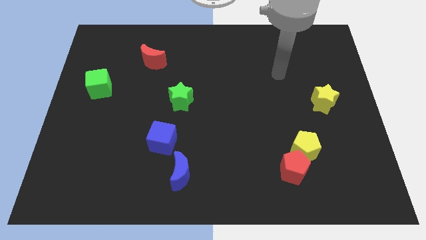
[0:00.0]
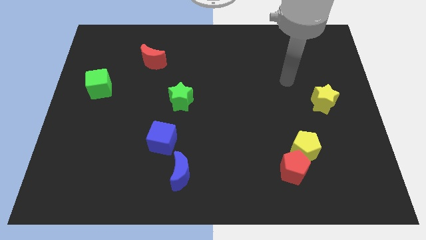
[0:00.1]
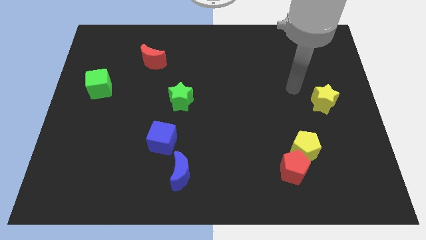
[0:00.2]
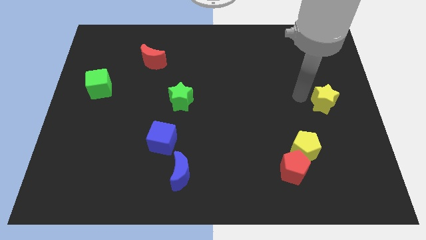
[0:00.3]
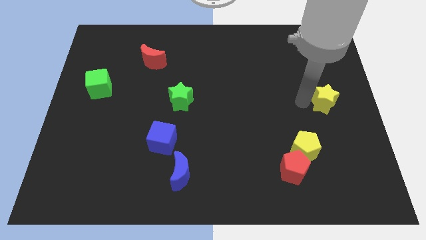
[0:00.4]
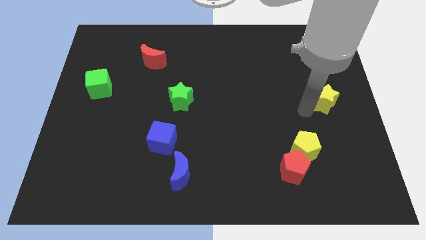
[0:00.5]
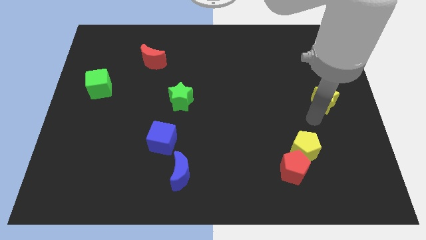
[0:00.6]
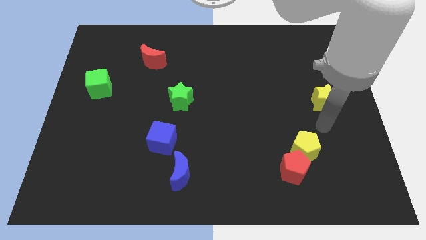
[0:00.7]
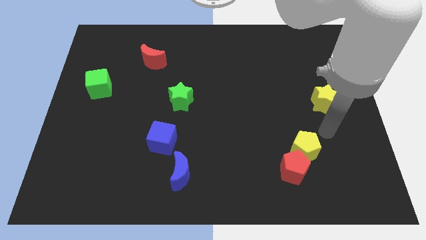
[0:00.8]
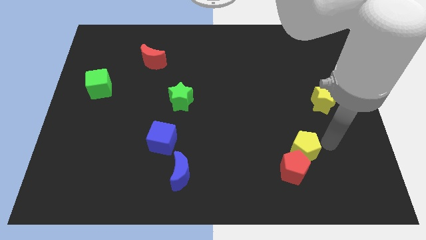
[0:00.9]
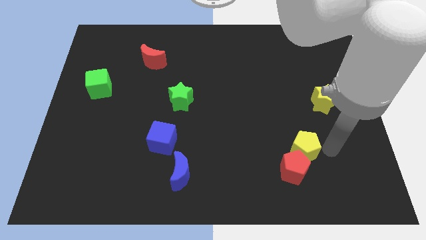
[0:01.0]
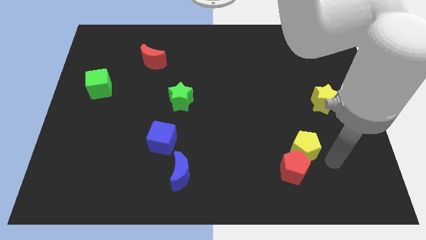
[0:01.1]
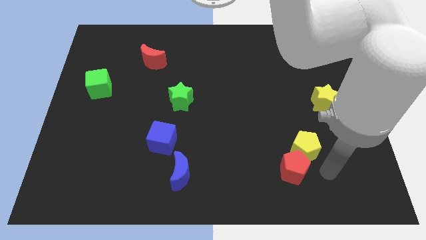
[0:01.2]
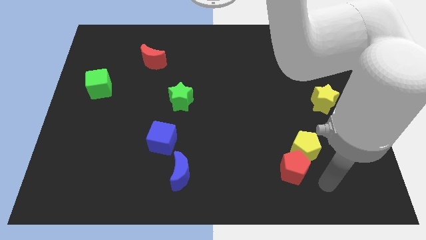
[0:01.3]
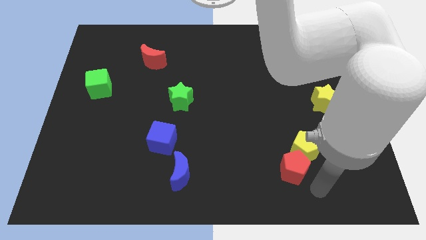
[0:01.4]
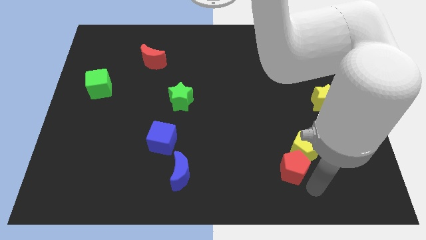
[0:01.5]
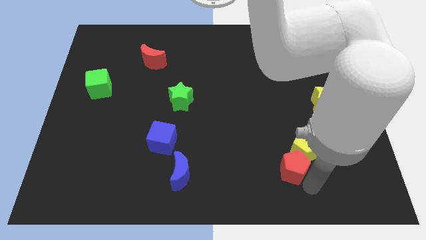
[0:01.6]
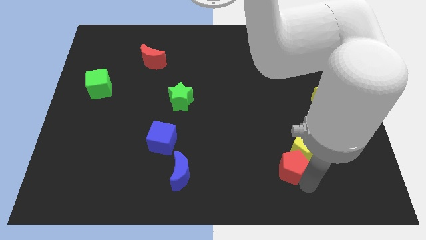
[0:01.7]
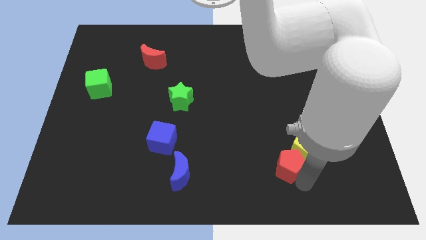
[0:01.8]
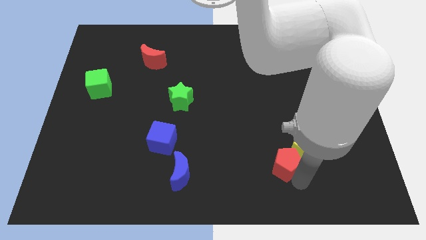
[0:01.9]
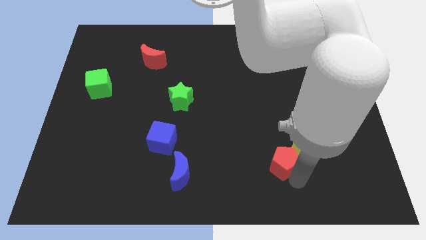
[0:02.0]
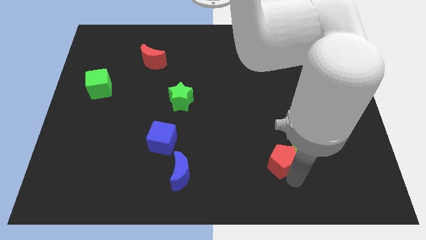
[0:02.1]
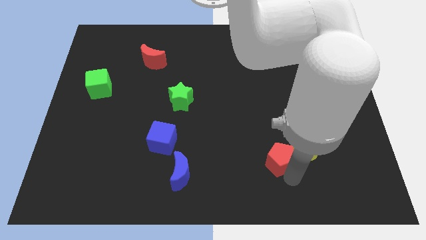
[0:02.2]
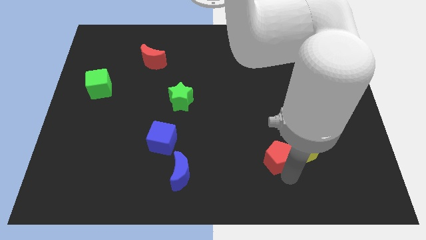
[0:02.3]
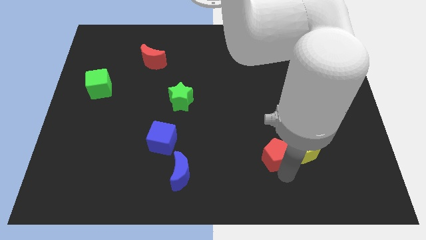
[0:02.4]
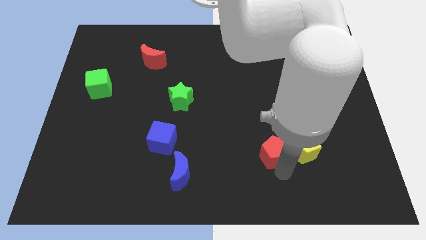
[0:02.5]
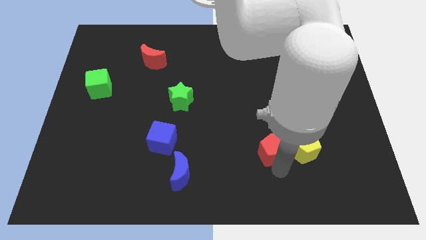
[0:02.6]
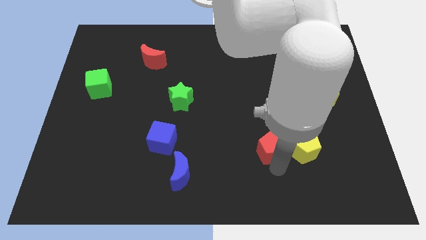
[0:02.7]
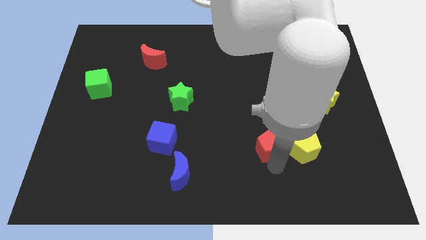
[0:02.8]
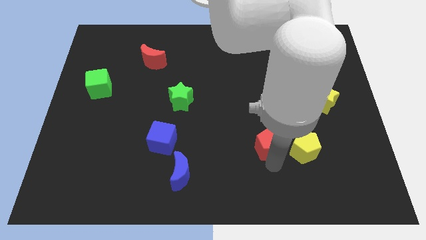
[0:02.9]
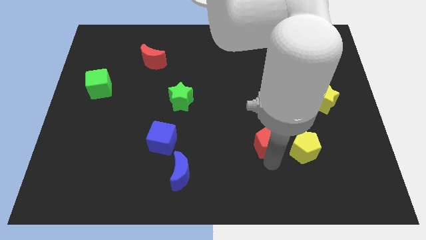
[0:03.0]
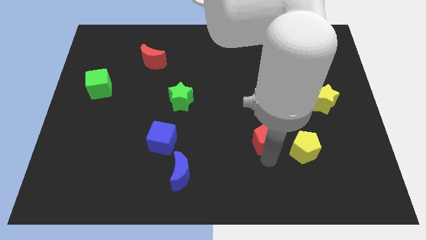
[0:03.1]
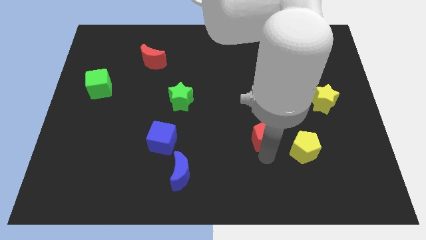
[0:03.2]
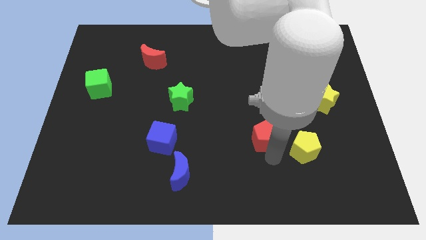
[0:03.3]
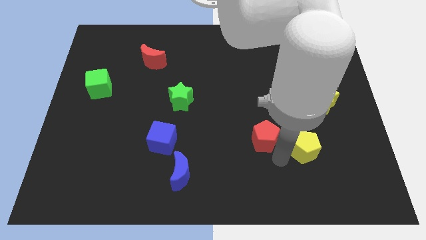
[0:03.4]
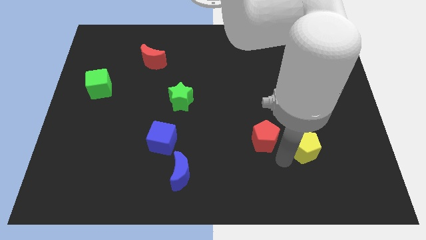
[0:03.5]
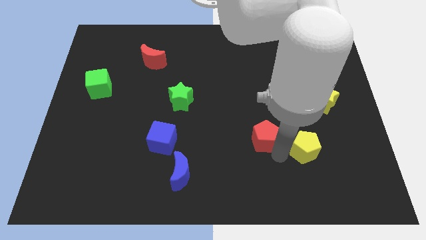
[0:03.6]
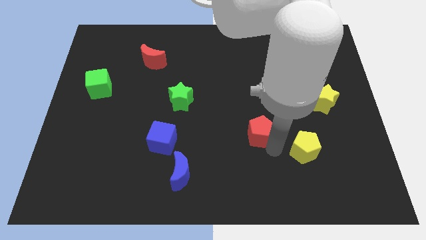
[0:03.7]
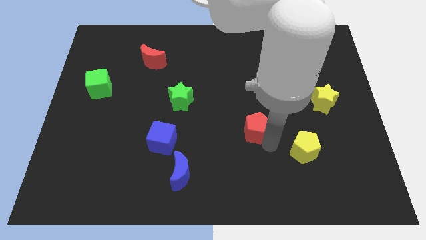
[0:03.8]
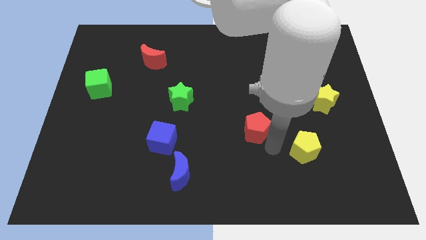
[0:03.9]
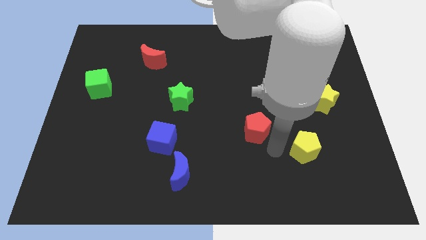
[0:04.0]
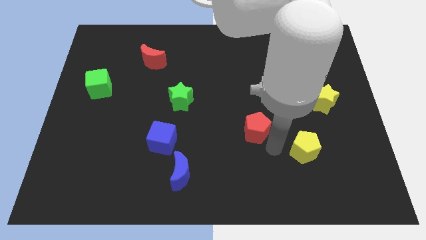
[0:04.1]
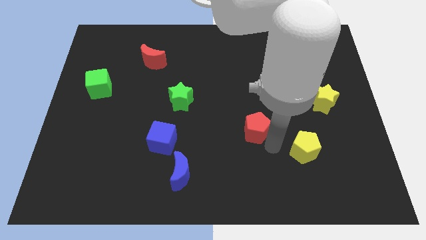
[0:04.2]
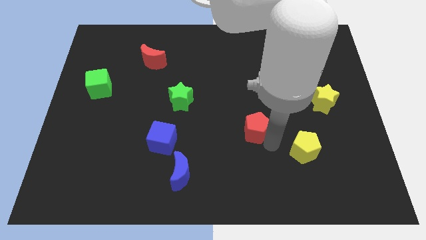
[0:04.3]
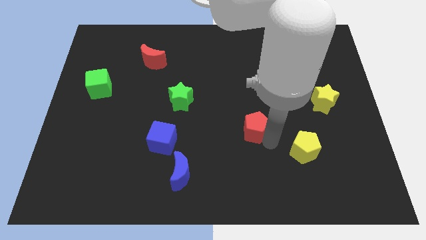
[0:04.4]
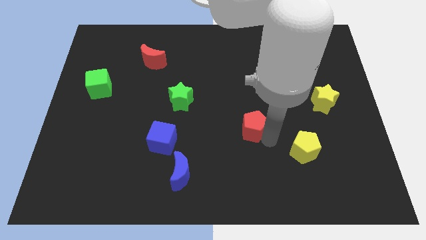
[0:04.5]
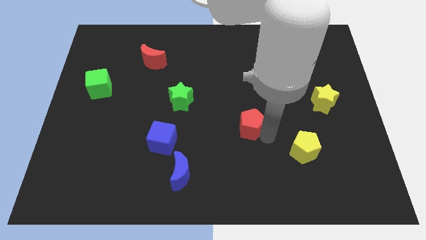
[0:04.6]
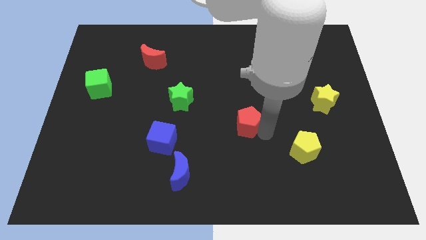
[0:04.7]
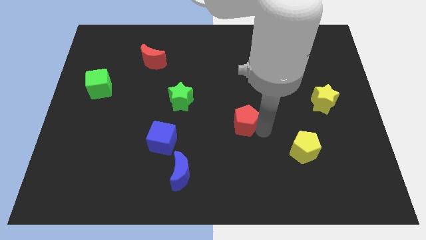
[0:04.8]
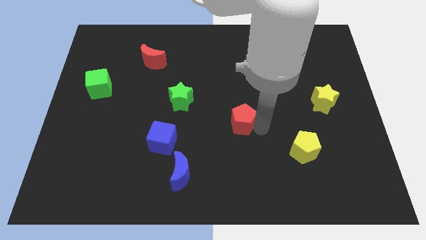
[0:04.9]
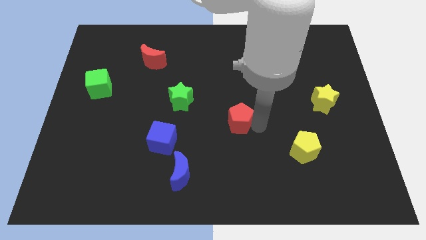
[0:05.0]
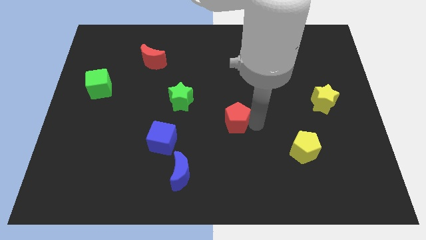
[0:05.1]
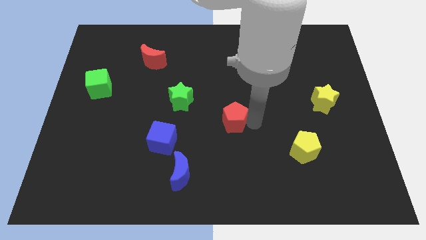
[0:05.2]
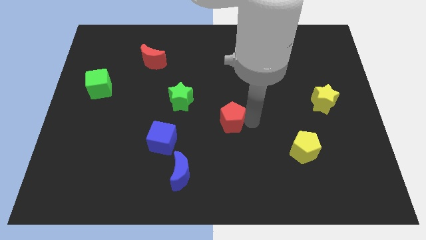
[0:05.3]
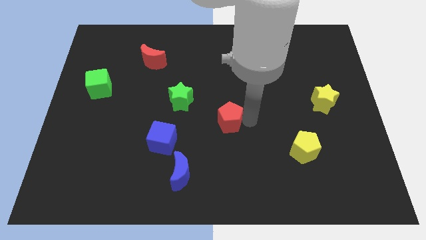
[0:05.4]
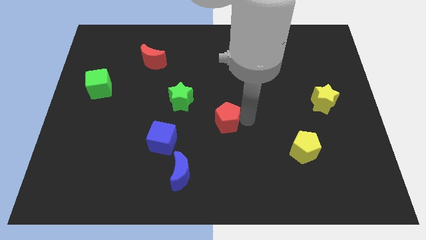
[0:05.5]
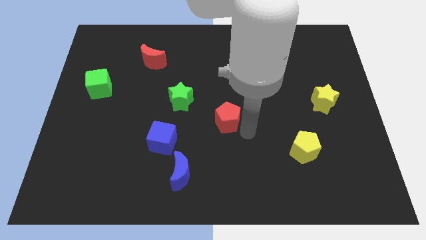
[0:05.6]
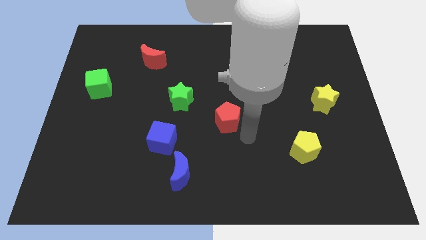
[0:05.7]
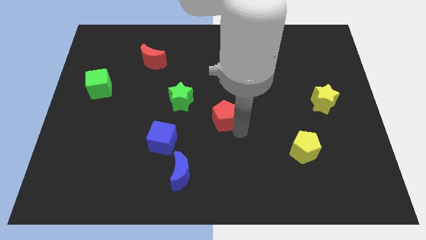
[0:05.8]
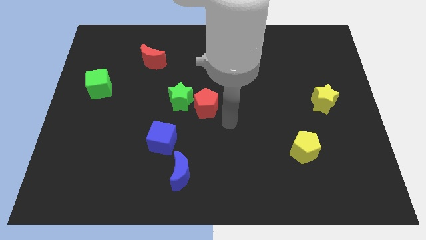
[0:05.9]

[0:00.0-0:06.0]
slide the red pentagon up and left diagonally

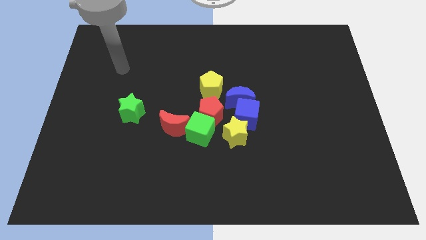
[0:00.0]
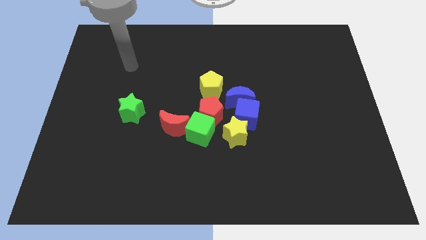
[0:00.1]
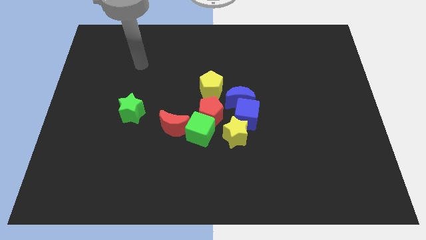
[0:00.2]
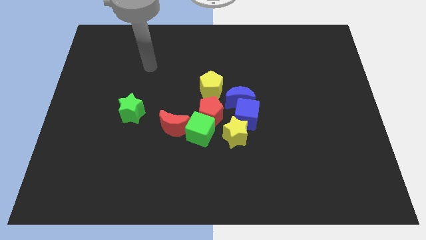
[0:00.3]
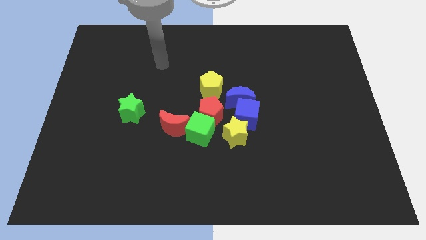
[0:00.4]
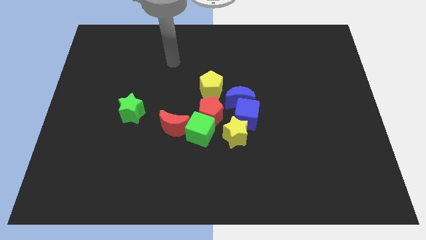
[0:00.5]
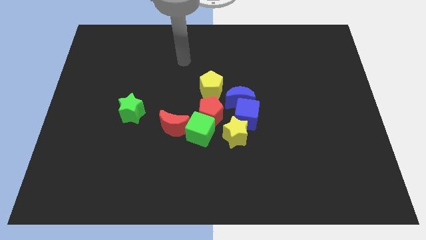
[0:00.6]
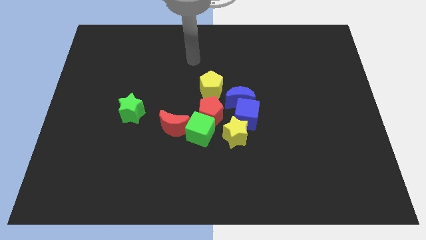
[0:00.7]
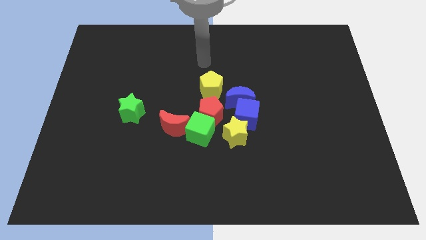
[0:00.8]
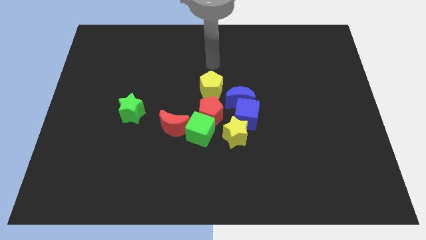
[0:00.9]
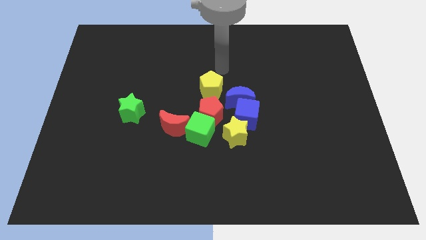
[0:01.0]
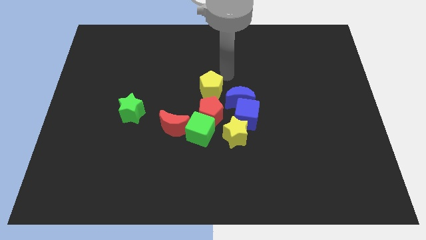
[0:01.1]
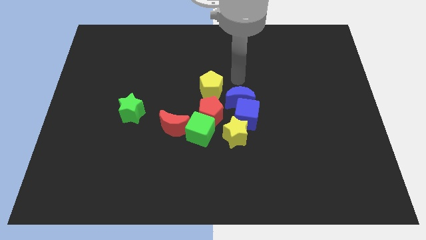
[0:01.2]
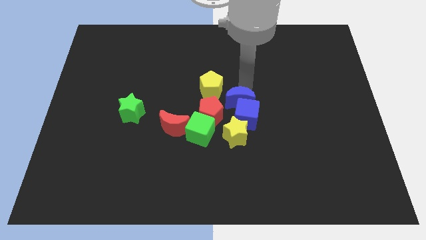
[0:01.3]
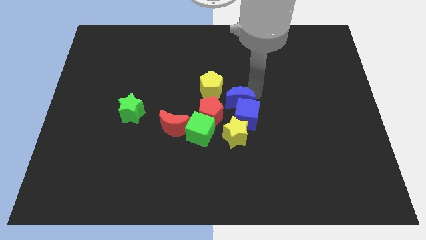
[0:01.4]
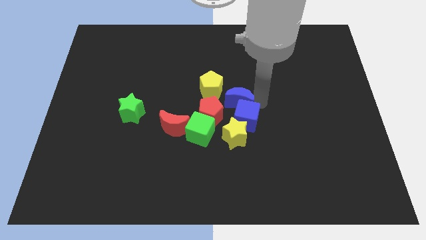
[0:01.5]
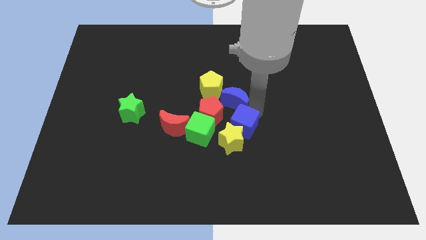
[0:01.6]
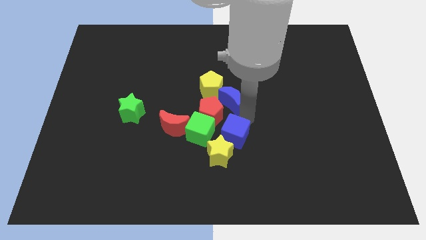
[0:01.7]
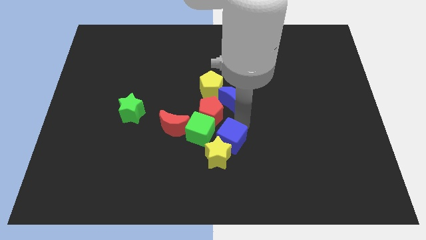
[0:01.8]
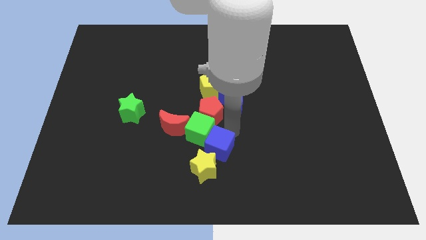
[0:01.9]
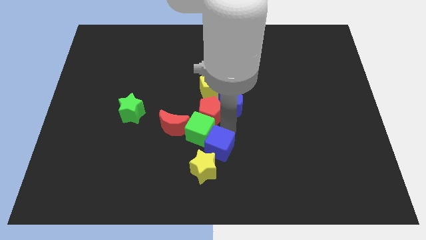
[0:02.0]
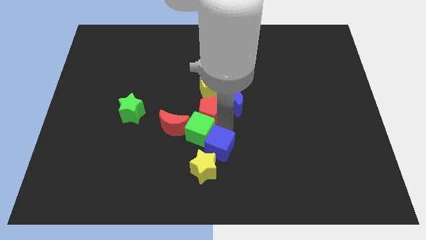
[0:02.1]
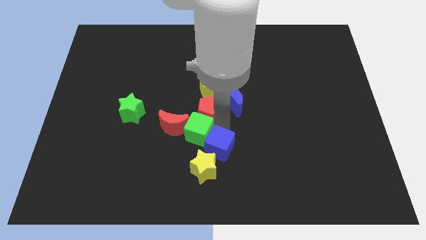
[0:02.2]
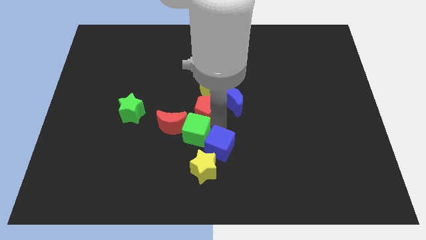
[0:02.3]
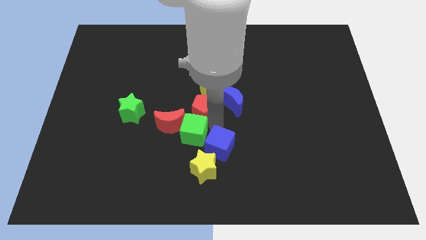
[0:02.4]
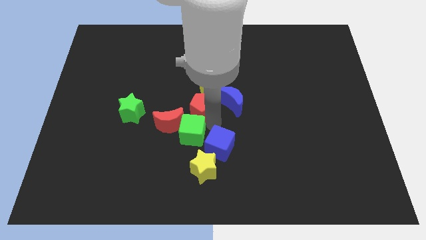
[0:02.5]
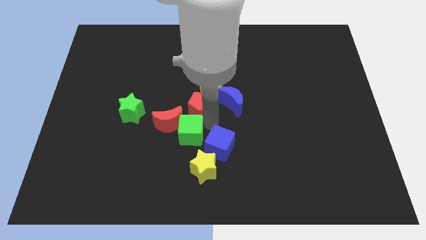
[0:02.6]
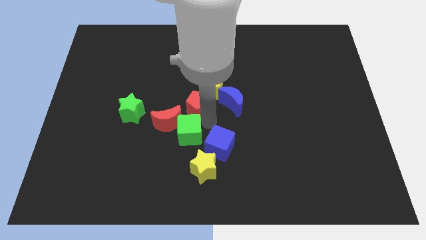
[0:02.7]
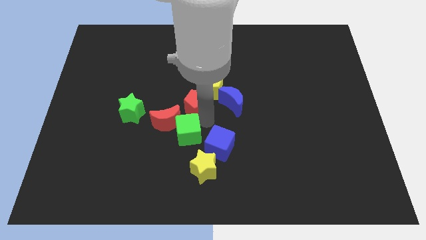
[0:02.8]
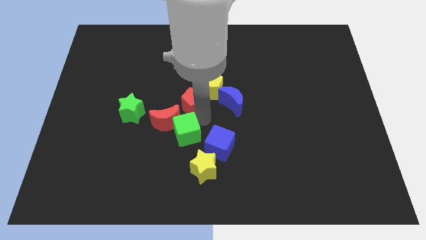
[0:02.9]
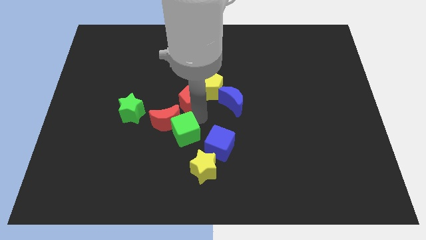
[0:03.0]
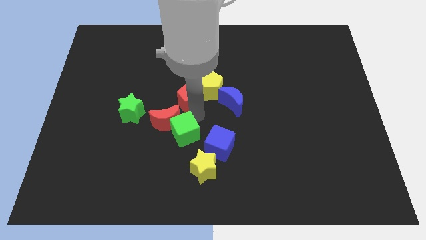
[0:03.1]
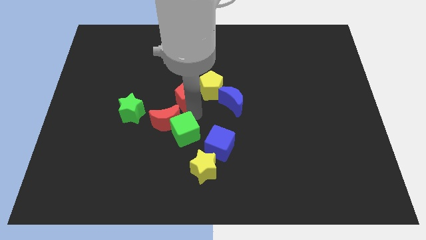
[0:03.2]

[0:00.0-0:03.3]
move the red pentagon somewhat upwards and left diagonally
